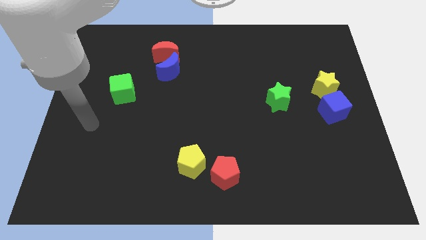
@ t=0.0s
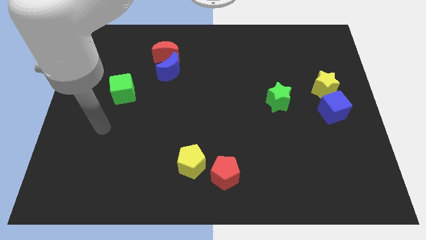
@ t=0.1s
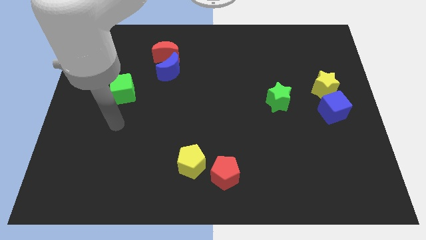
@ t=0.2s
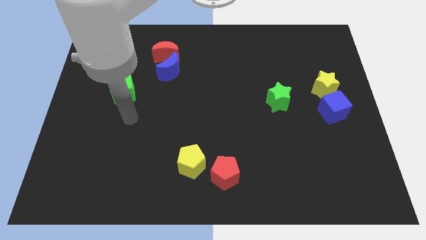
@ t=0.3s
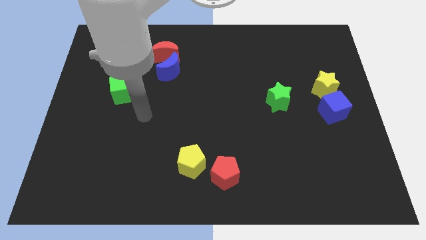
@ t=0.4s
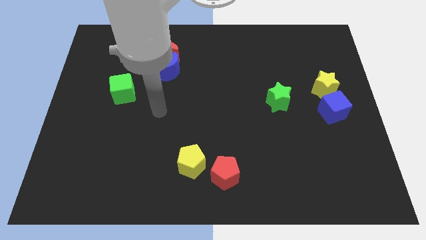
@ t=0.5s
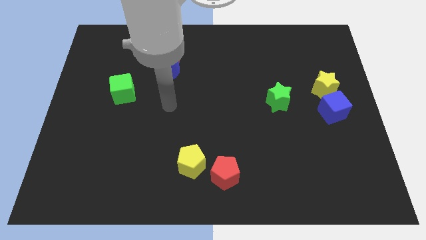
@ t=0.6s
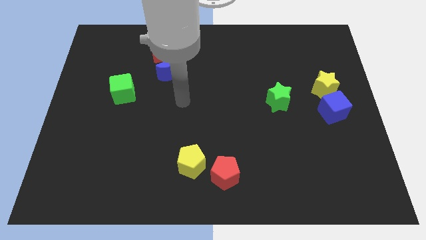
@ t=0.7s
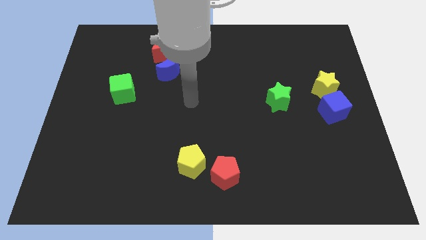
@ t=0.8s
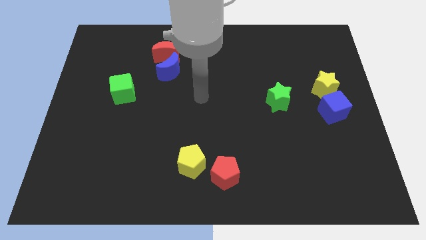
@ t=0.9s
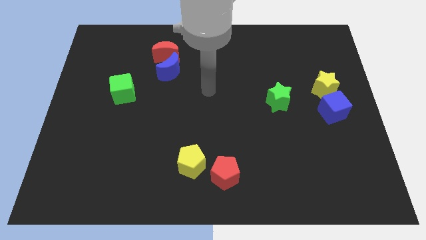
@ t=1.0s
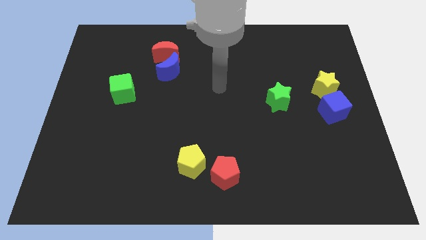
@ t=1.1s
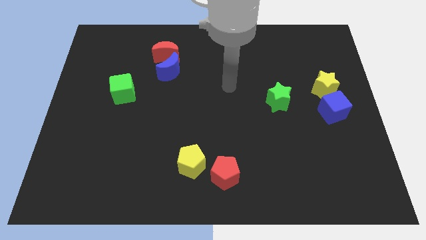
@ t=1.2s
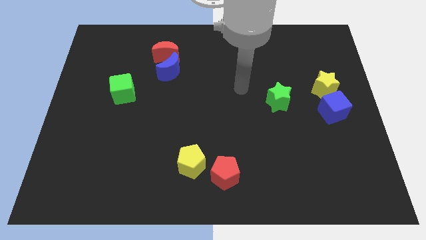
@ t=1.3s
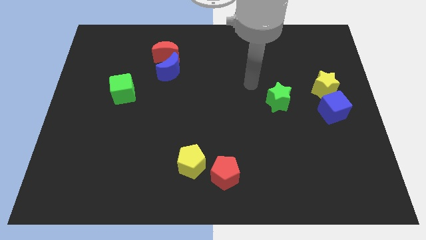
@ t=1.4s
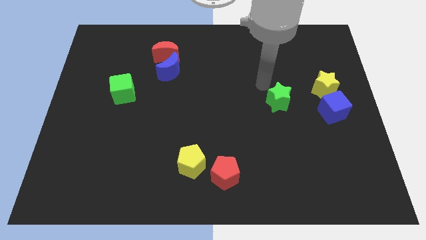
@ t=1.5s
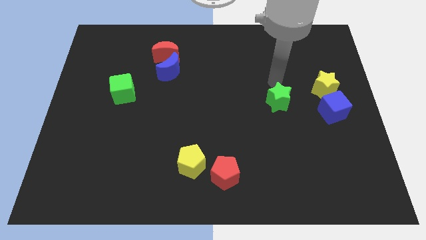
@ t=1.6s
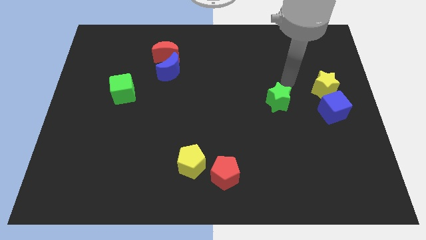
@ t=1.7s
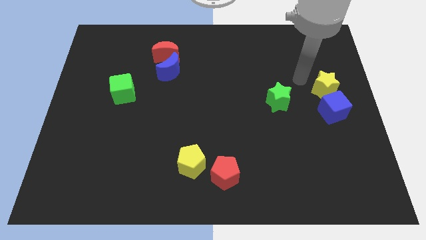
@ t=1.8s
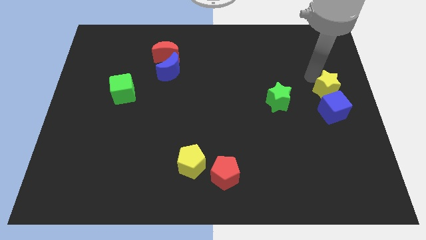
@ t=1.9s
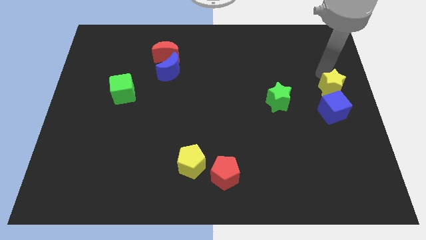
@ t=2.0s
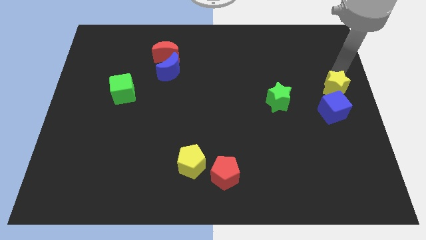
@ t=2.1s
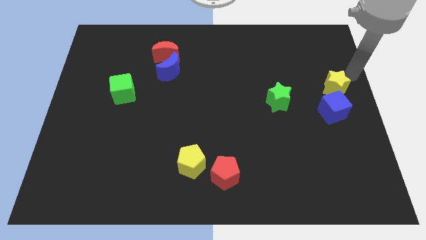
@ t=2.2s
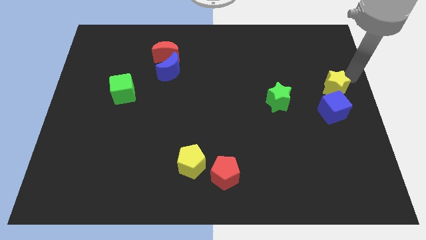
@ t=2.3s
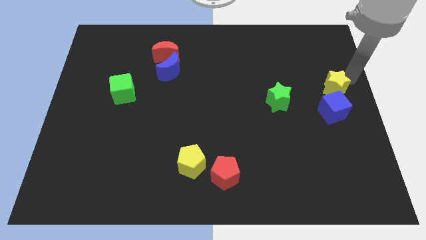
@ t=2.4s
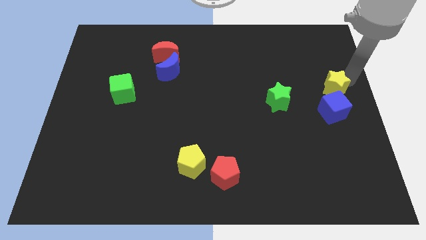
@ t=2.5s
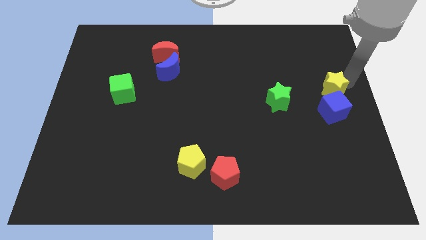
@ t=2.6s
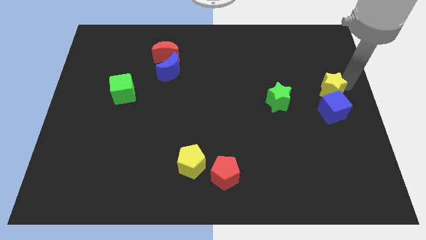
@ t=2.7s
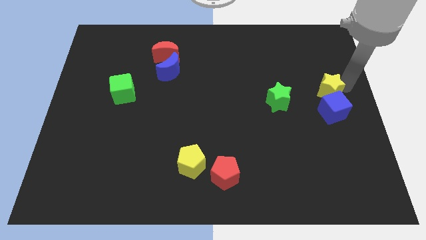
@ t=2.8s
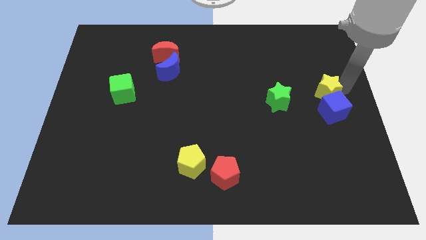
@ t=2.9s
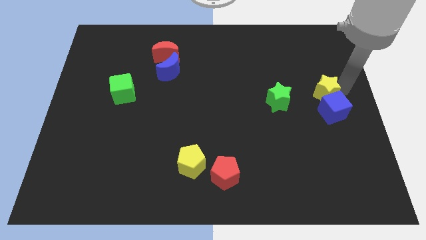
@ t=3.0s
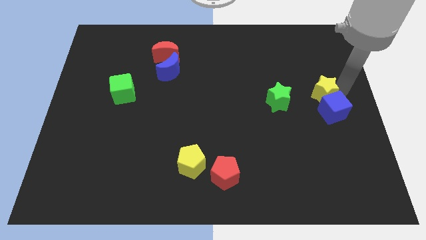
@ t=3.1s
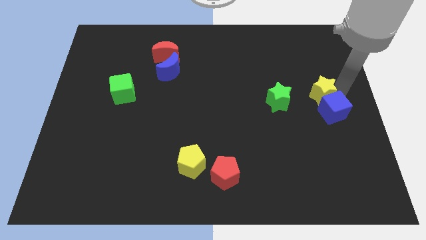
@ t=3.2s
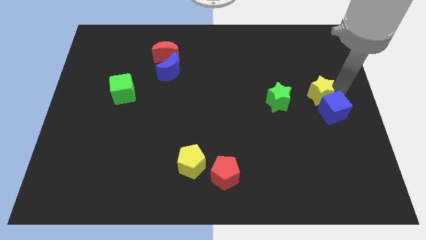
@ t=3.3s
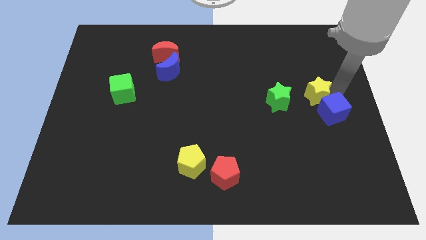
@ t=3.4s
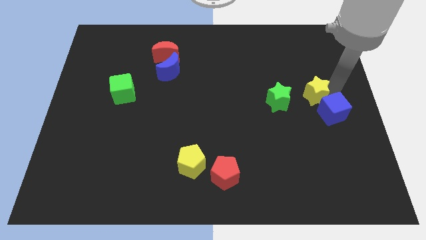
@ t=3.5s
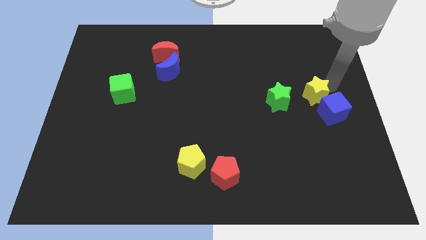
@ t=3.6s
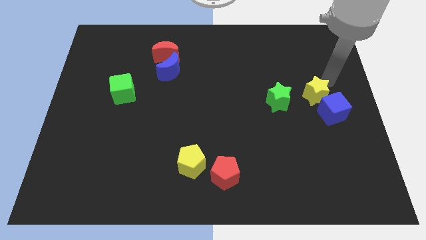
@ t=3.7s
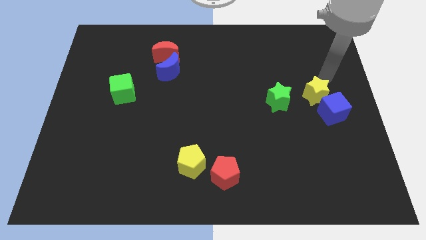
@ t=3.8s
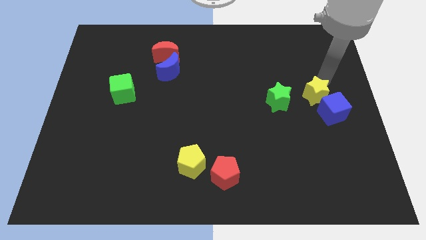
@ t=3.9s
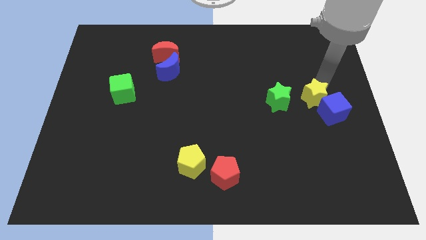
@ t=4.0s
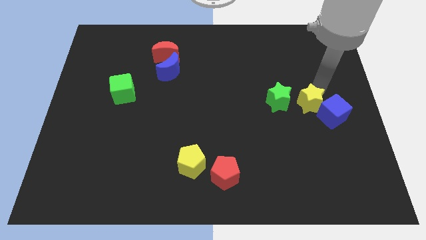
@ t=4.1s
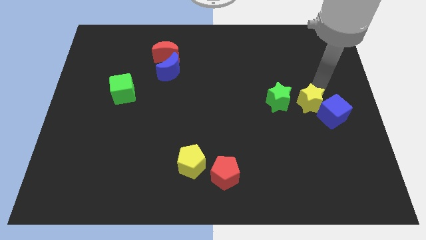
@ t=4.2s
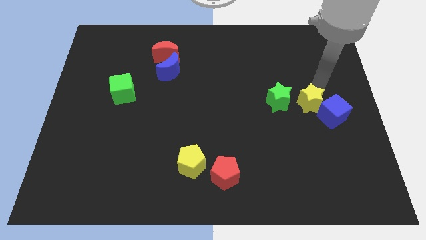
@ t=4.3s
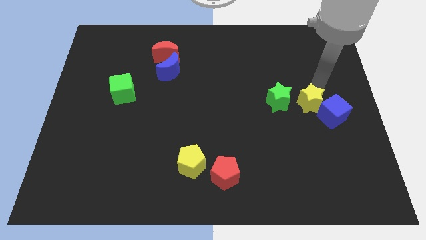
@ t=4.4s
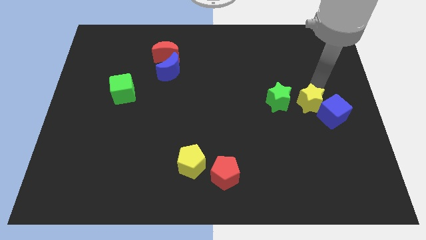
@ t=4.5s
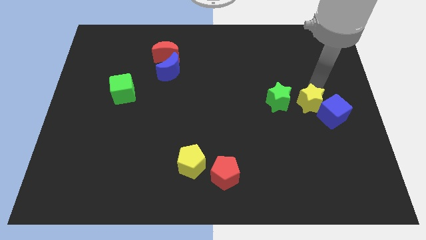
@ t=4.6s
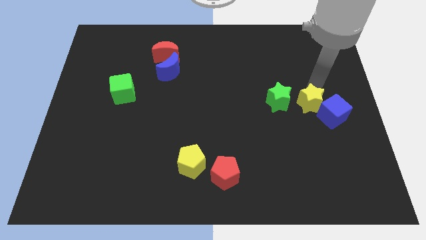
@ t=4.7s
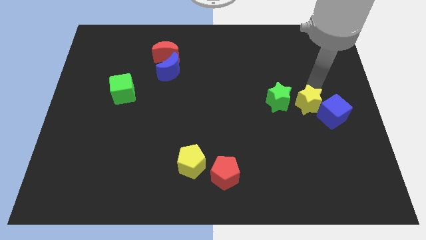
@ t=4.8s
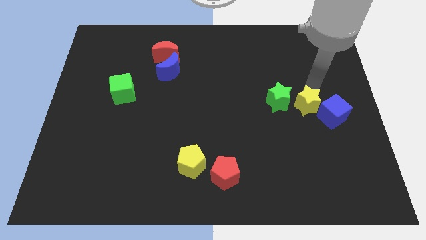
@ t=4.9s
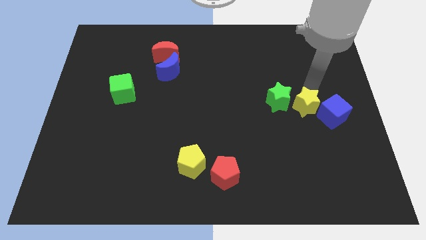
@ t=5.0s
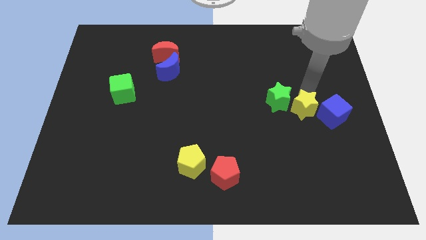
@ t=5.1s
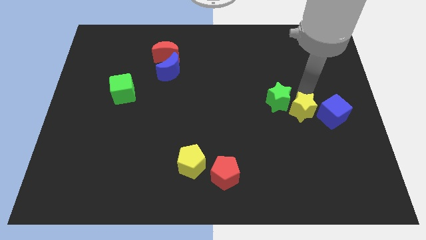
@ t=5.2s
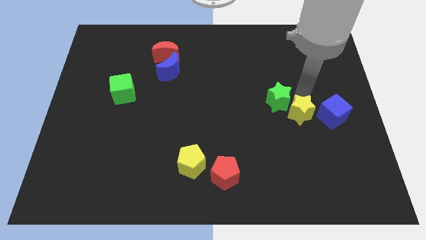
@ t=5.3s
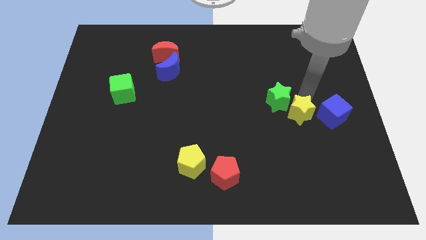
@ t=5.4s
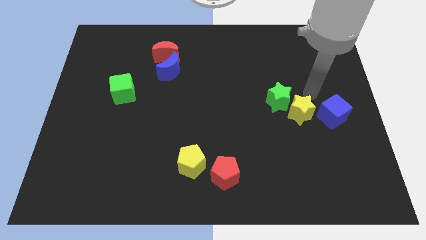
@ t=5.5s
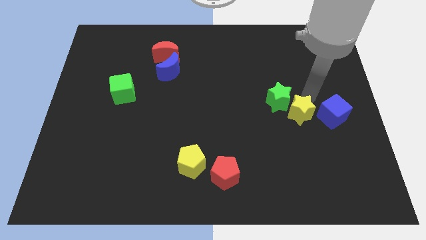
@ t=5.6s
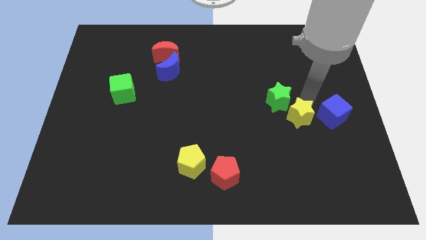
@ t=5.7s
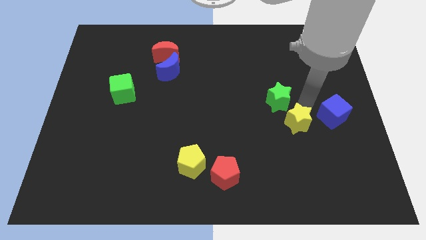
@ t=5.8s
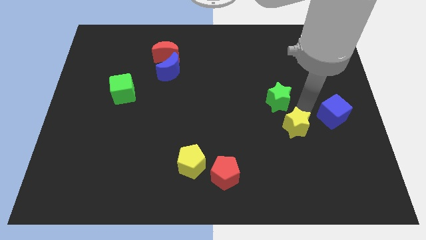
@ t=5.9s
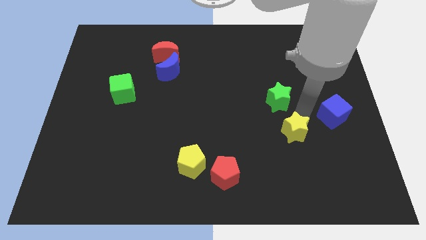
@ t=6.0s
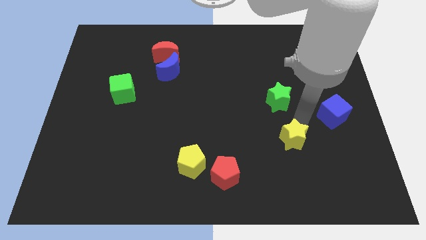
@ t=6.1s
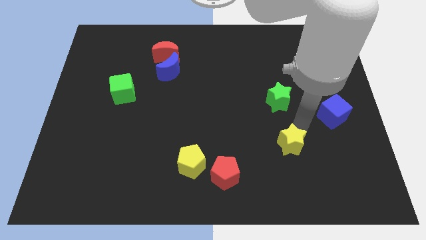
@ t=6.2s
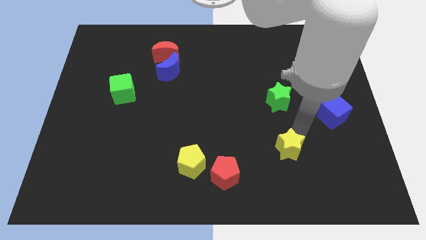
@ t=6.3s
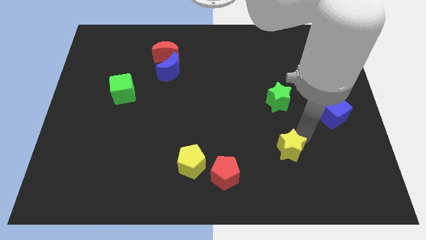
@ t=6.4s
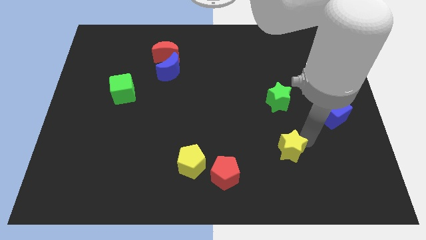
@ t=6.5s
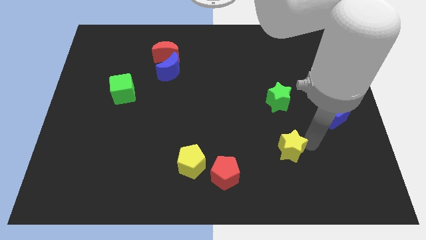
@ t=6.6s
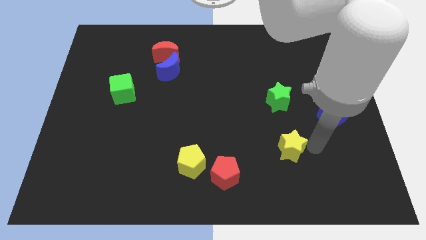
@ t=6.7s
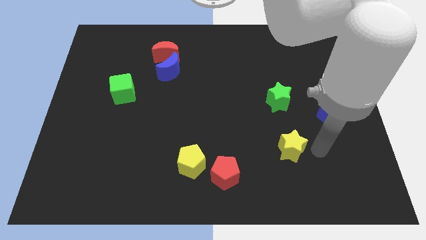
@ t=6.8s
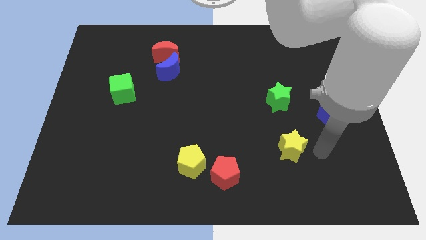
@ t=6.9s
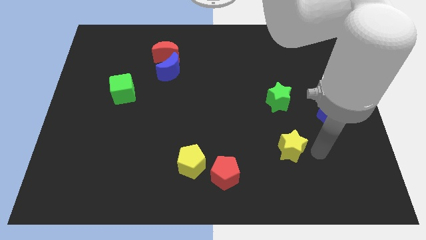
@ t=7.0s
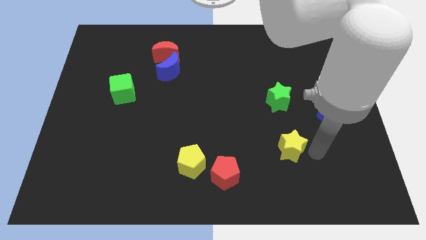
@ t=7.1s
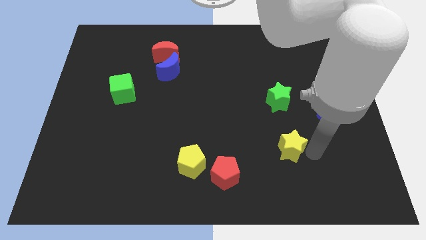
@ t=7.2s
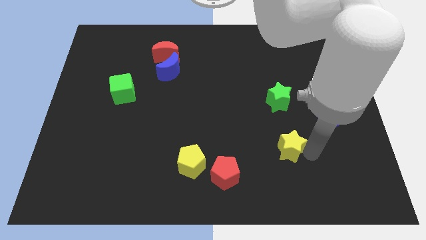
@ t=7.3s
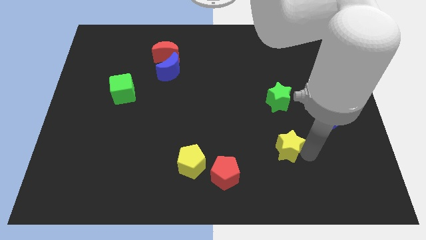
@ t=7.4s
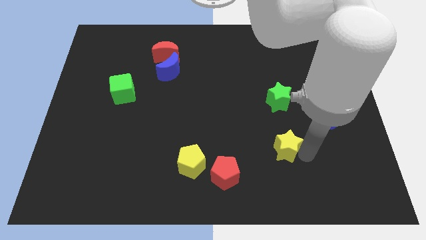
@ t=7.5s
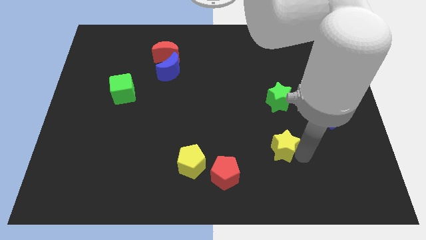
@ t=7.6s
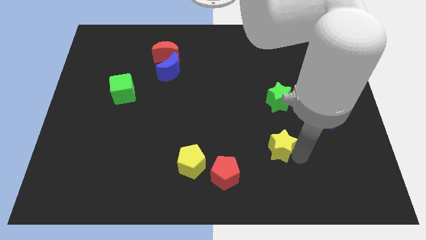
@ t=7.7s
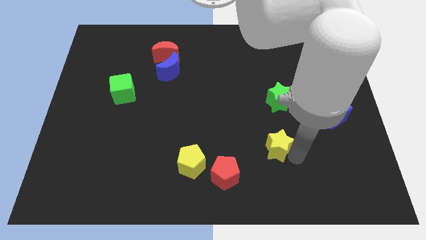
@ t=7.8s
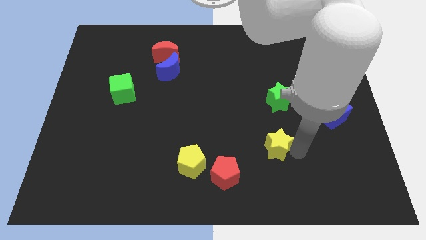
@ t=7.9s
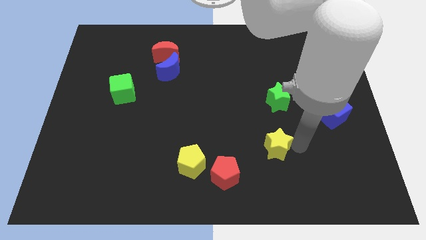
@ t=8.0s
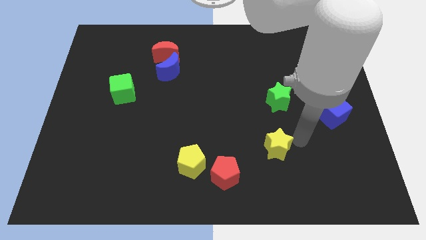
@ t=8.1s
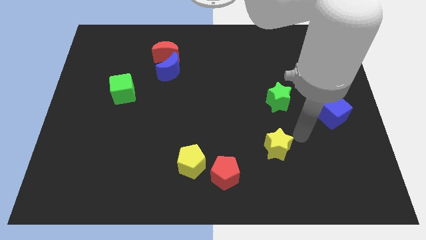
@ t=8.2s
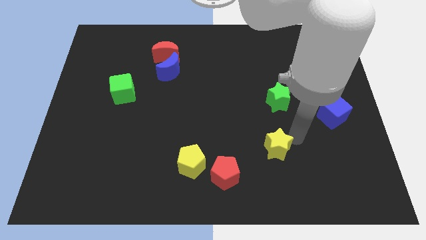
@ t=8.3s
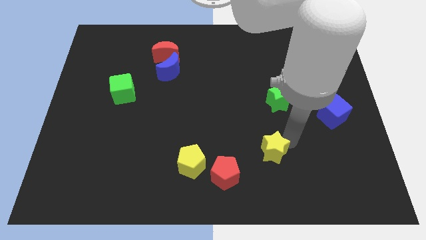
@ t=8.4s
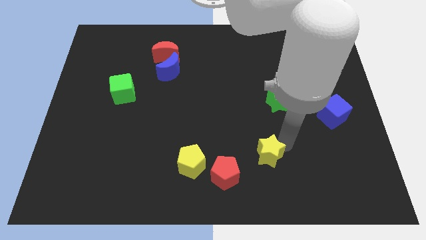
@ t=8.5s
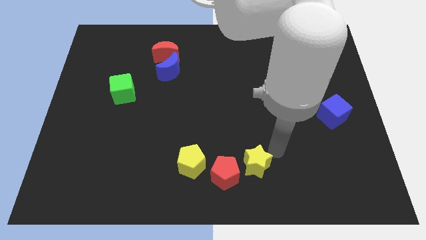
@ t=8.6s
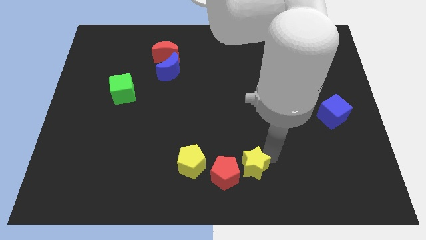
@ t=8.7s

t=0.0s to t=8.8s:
push the yellow star close to the red pentagon
